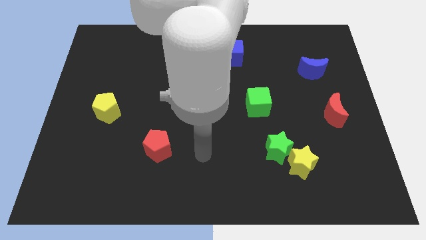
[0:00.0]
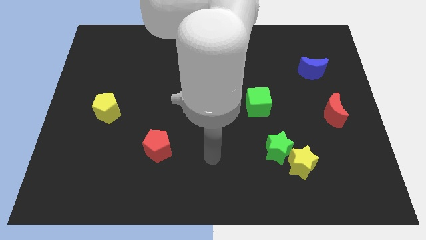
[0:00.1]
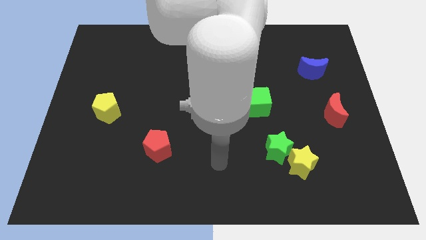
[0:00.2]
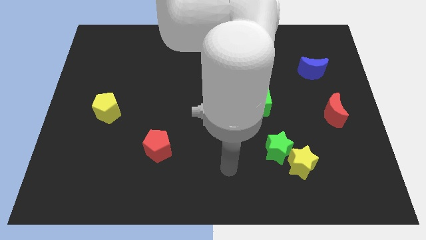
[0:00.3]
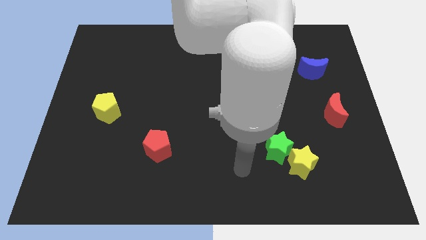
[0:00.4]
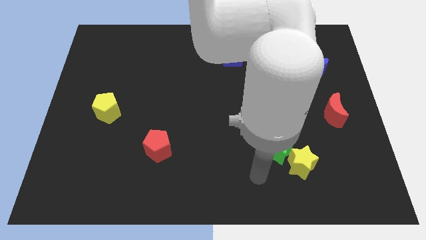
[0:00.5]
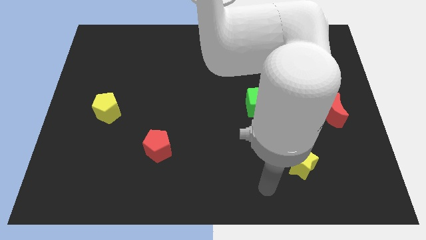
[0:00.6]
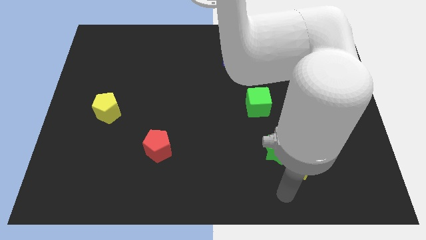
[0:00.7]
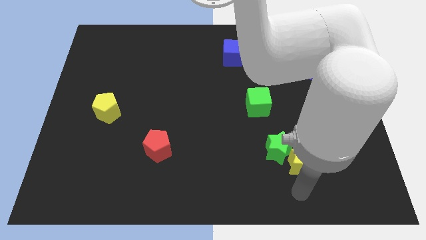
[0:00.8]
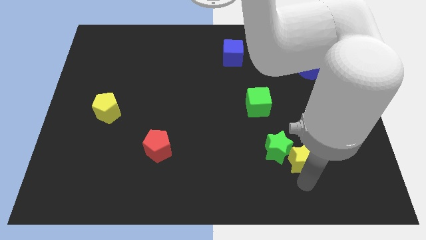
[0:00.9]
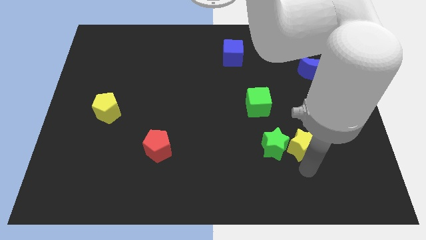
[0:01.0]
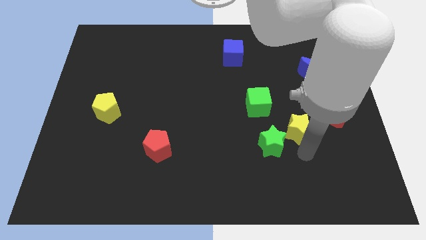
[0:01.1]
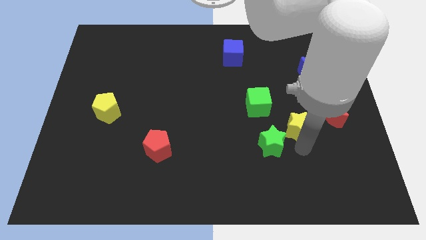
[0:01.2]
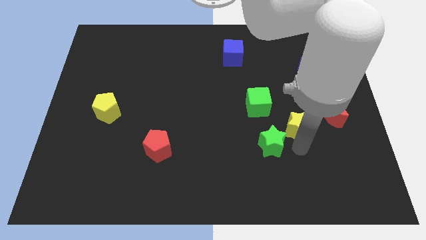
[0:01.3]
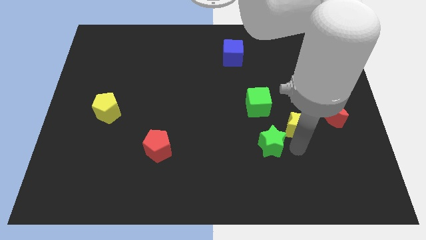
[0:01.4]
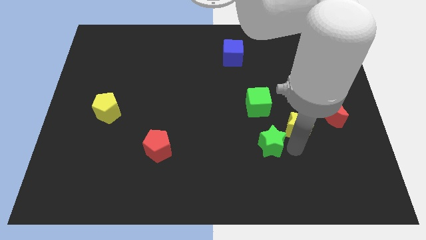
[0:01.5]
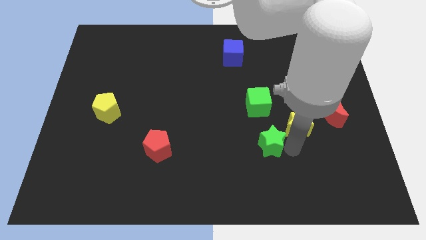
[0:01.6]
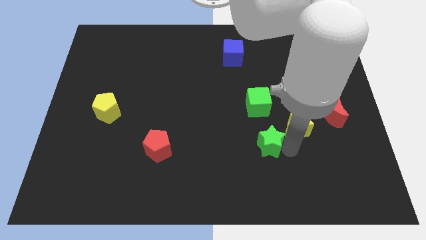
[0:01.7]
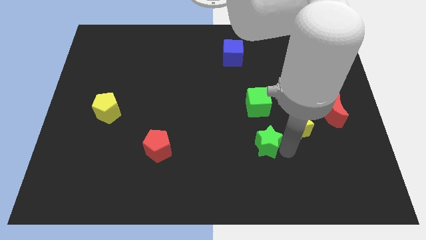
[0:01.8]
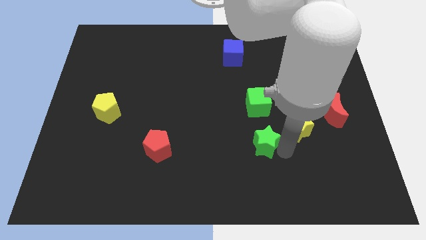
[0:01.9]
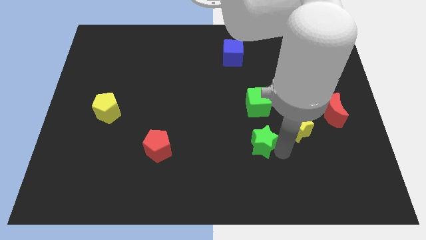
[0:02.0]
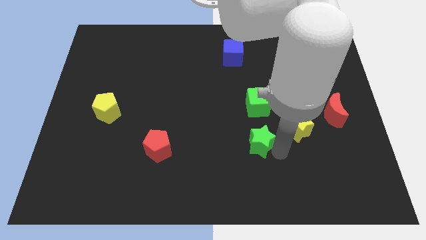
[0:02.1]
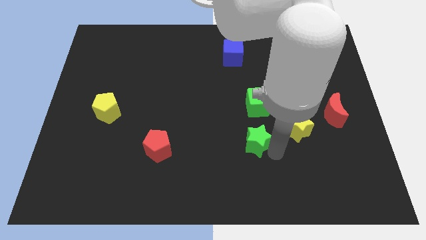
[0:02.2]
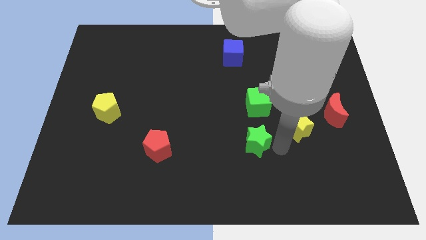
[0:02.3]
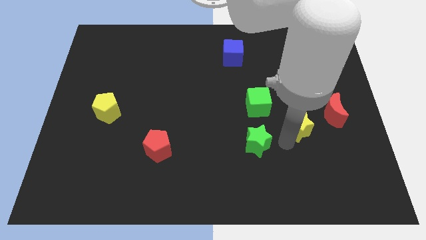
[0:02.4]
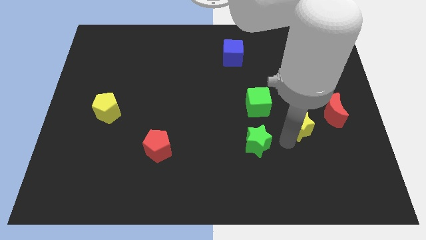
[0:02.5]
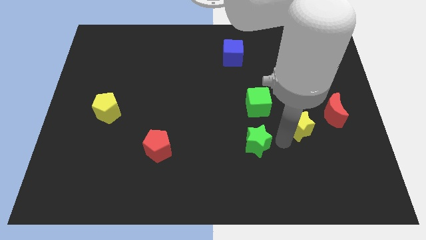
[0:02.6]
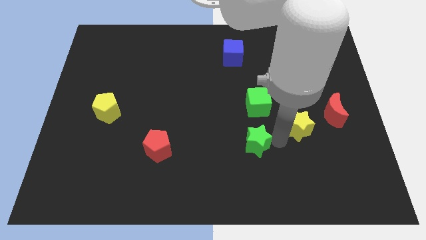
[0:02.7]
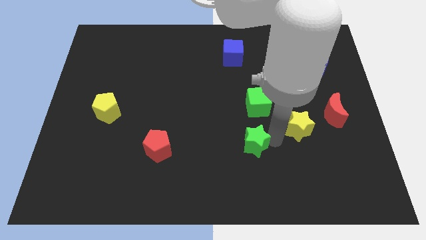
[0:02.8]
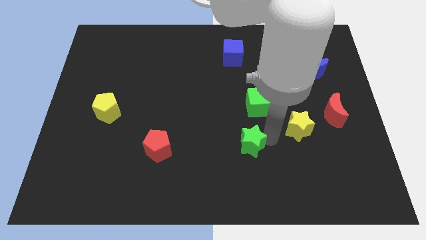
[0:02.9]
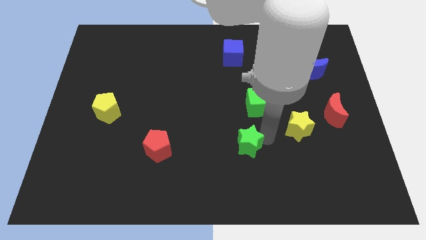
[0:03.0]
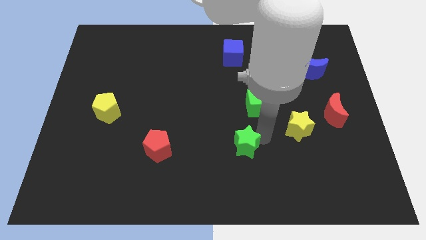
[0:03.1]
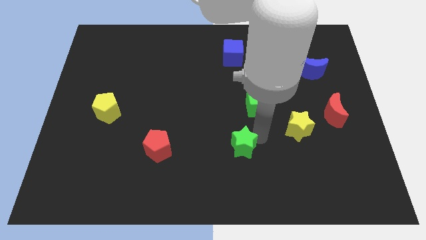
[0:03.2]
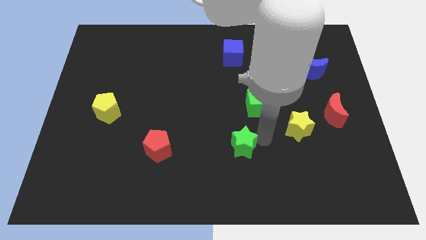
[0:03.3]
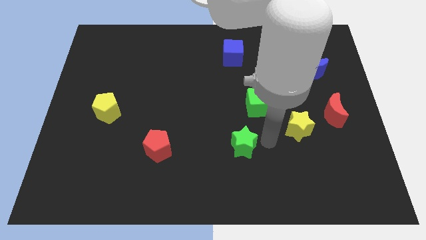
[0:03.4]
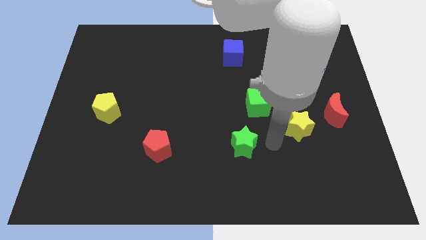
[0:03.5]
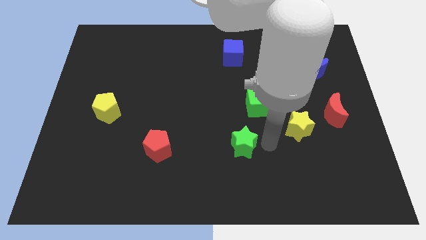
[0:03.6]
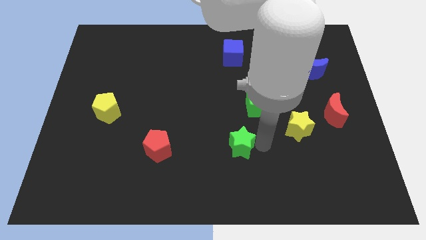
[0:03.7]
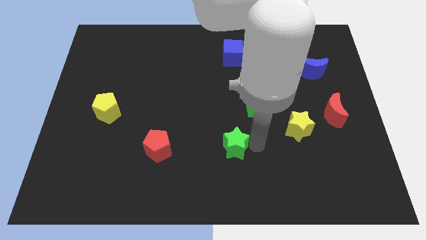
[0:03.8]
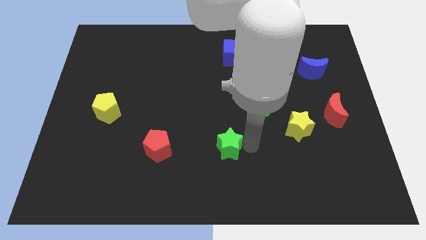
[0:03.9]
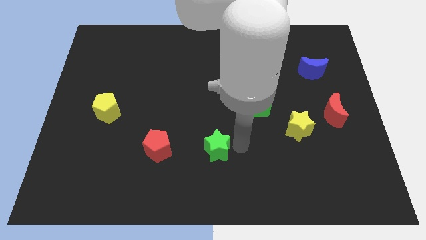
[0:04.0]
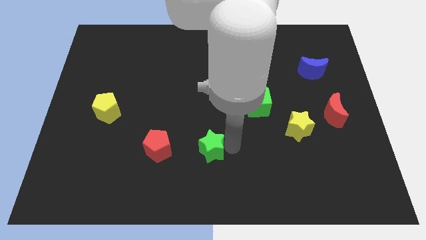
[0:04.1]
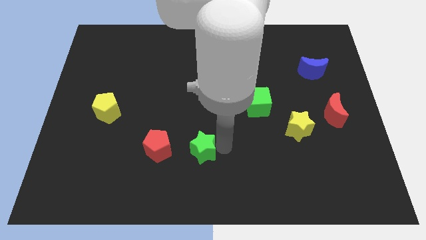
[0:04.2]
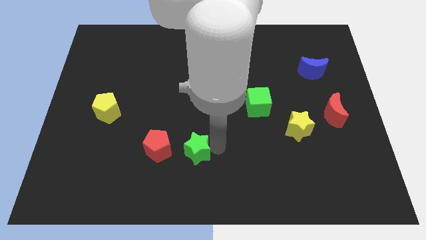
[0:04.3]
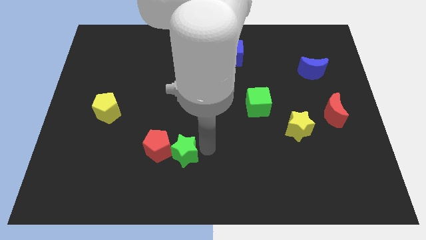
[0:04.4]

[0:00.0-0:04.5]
slide the green star left

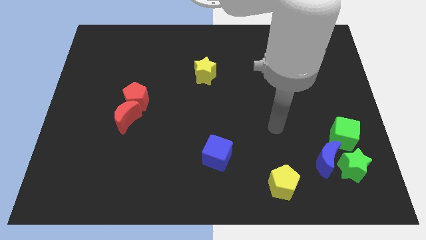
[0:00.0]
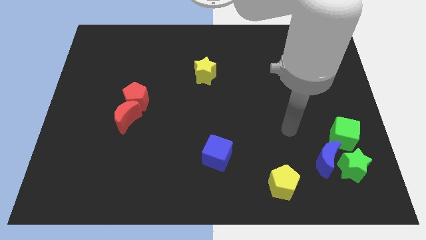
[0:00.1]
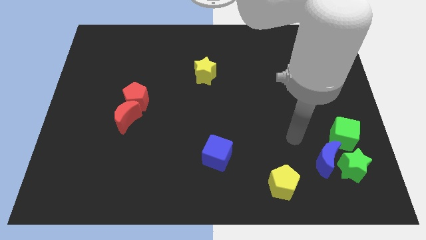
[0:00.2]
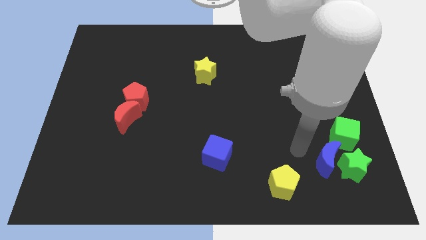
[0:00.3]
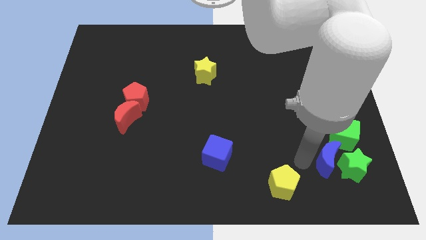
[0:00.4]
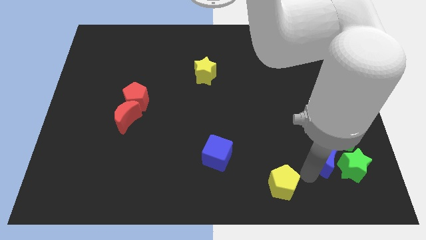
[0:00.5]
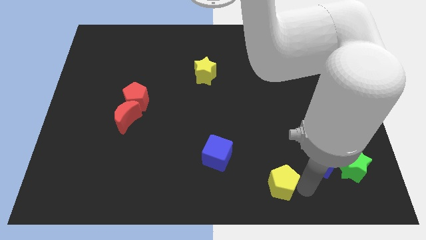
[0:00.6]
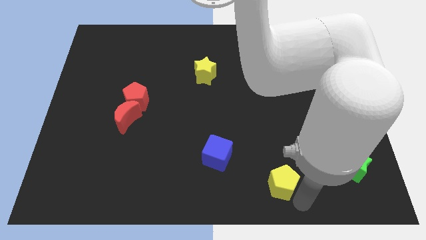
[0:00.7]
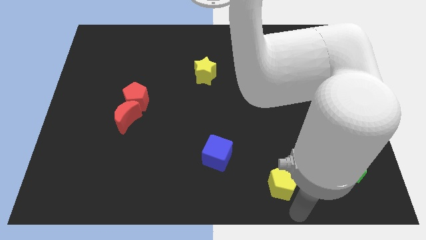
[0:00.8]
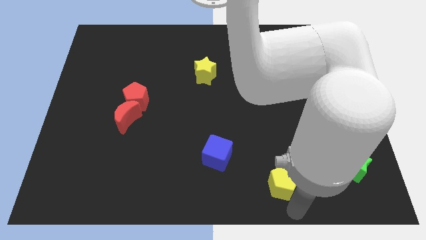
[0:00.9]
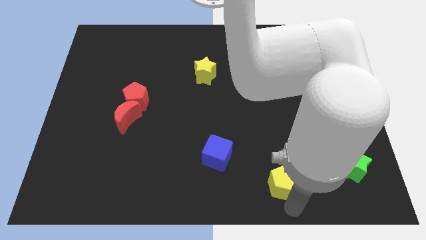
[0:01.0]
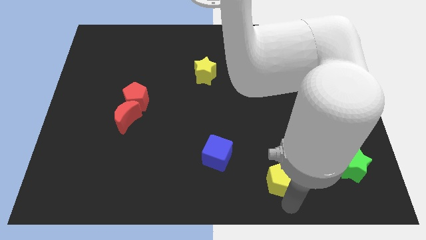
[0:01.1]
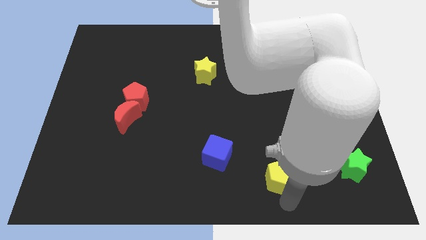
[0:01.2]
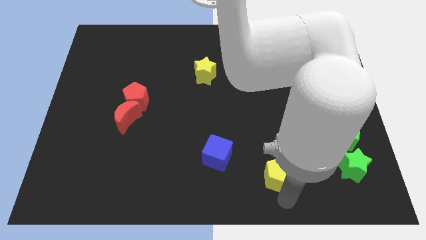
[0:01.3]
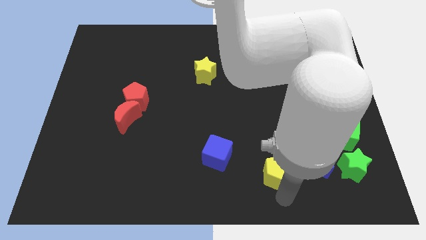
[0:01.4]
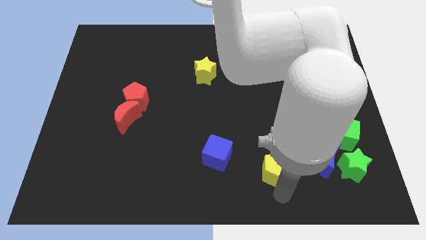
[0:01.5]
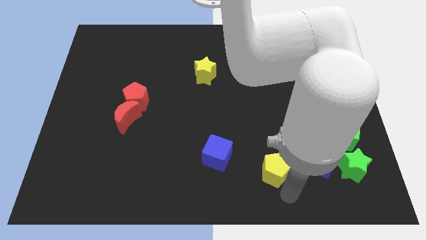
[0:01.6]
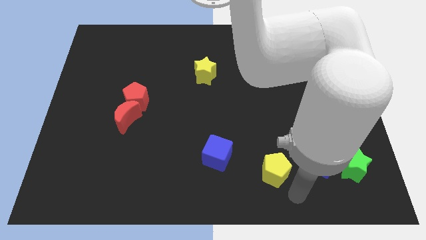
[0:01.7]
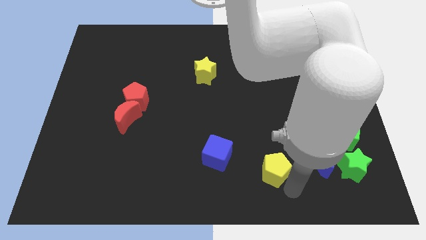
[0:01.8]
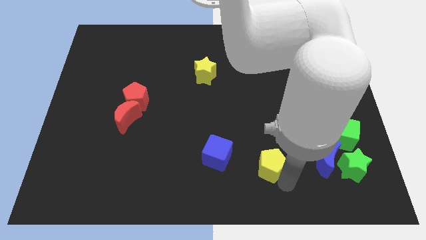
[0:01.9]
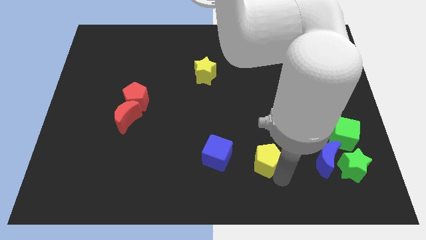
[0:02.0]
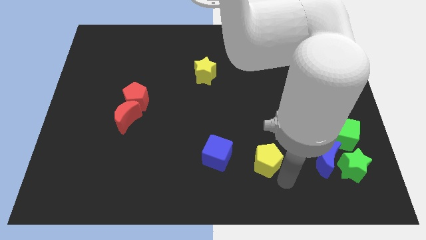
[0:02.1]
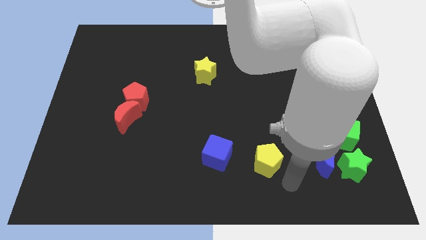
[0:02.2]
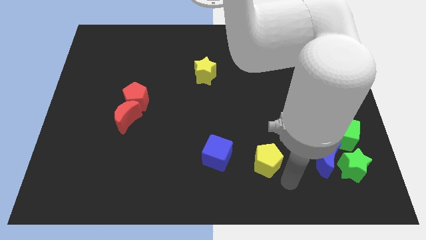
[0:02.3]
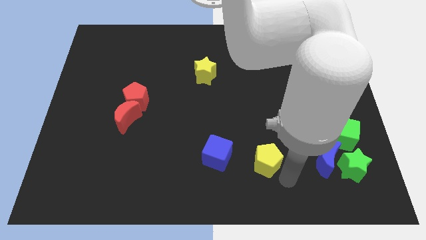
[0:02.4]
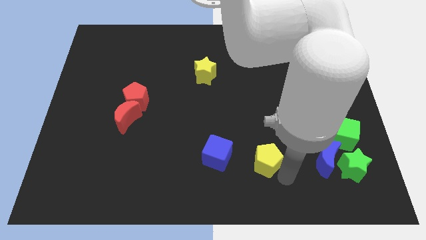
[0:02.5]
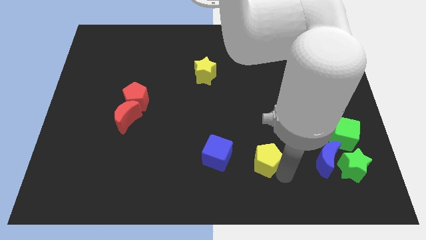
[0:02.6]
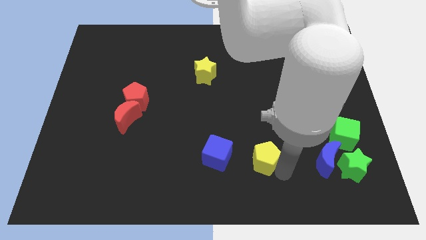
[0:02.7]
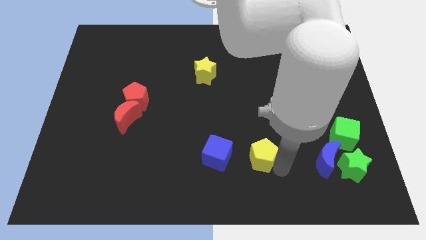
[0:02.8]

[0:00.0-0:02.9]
move the yellow pentagon somewhat up and then to the left

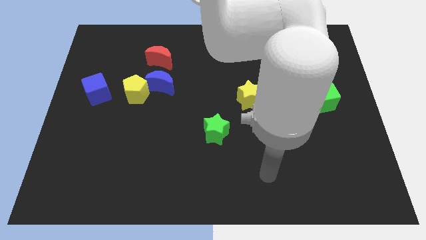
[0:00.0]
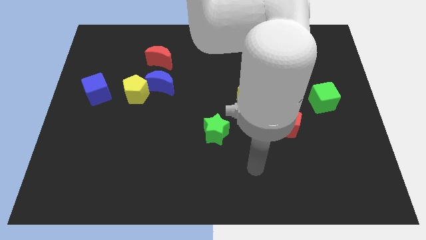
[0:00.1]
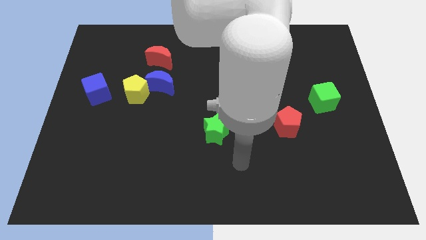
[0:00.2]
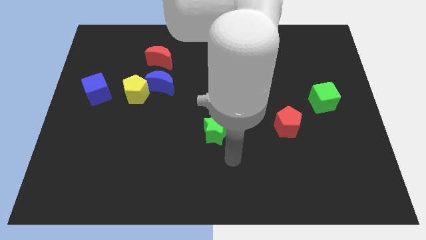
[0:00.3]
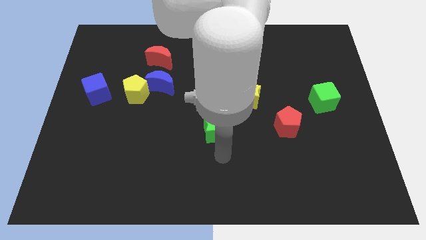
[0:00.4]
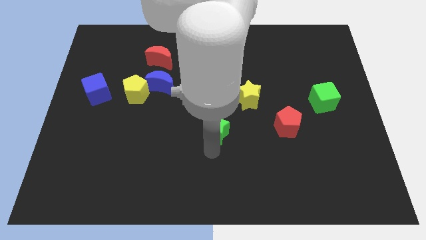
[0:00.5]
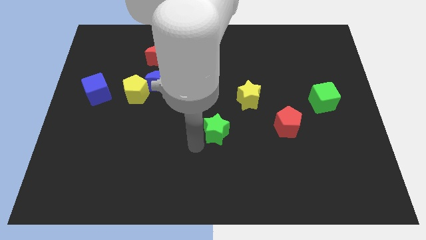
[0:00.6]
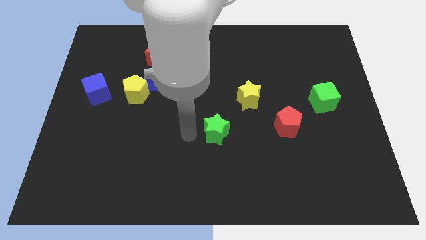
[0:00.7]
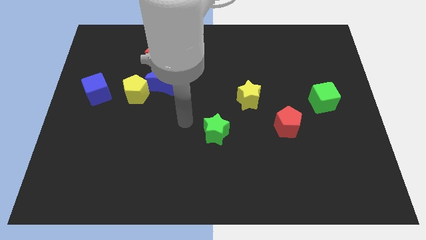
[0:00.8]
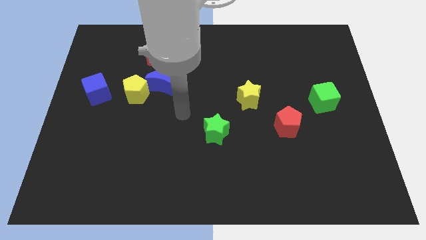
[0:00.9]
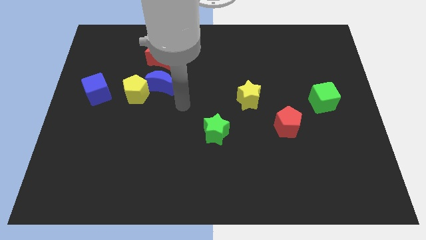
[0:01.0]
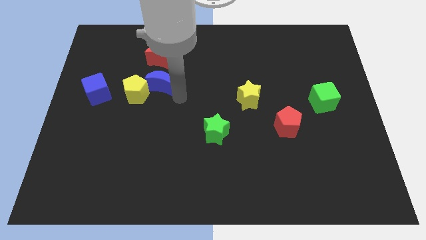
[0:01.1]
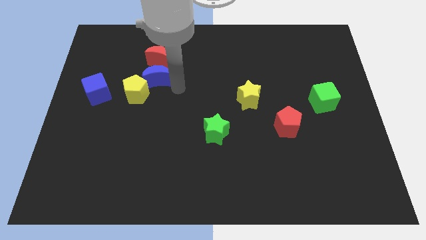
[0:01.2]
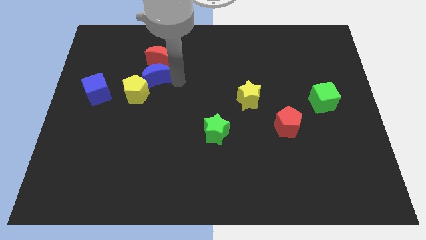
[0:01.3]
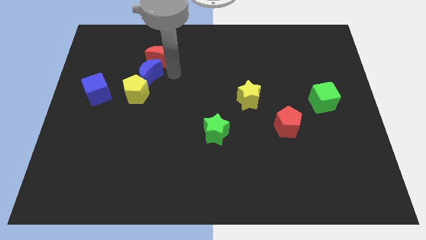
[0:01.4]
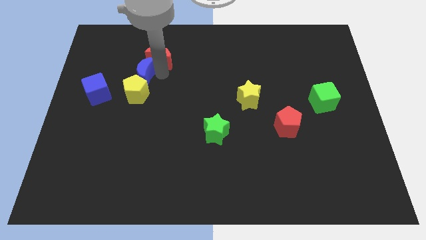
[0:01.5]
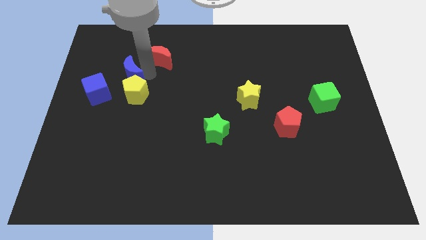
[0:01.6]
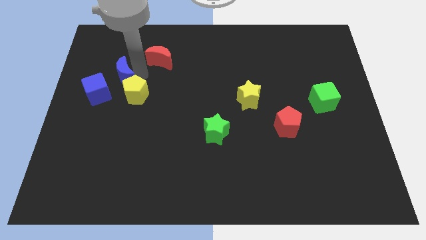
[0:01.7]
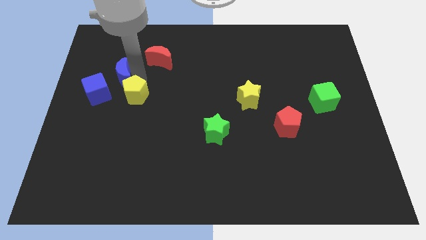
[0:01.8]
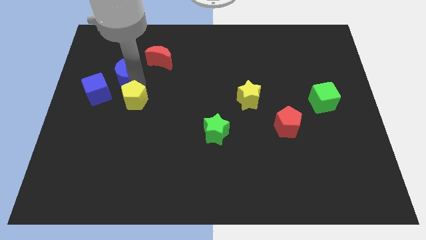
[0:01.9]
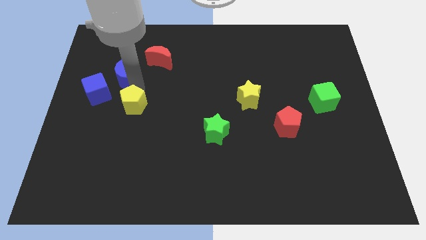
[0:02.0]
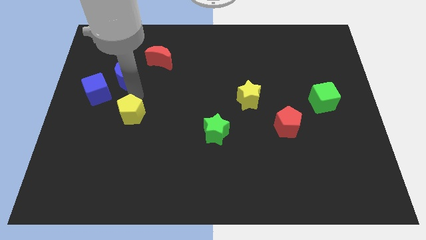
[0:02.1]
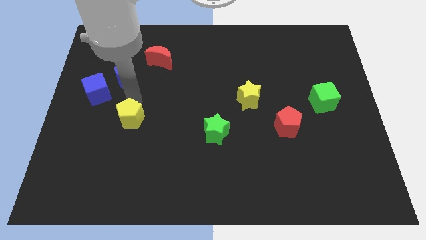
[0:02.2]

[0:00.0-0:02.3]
move the yellow pentagon downwards a little bit
